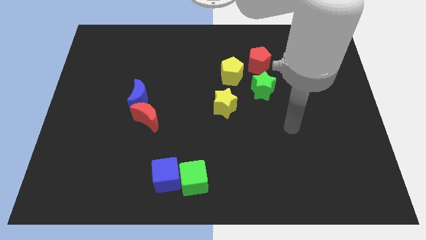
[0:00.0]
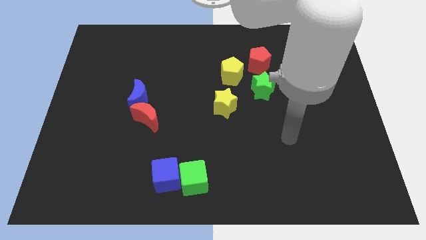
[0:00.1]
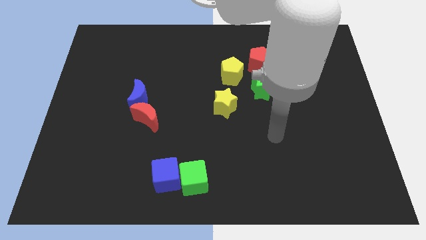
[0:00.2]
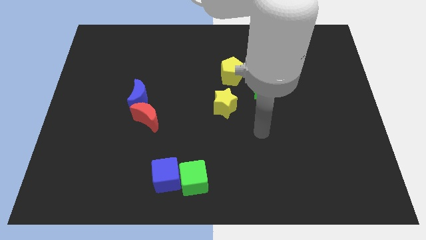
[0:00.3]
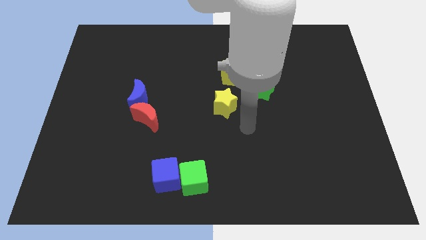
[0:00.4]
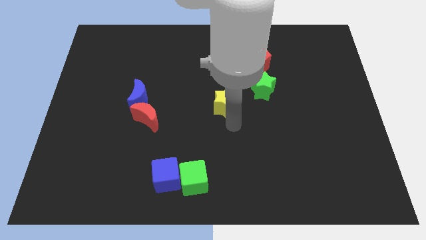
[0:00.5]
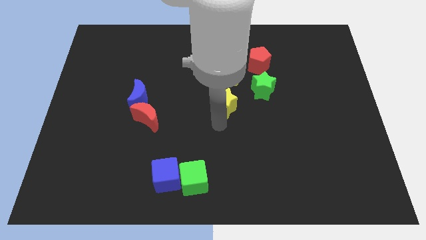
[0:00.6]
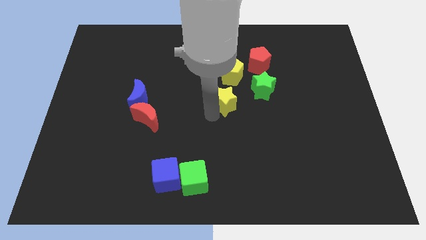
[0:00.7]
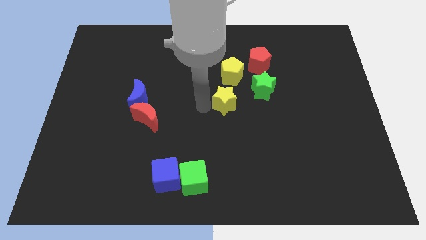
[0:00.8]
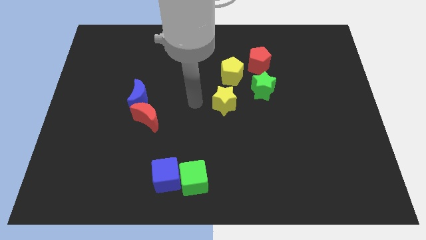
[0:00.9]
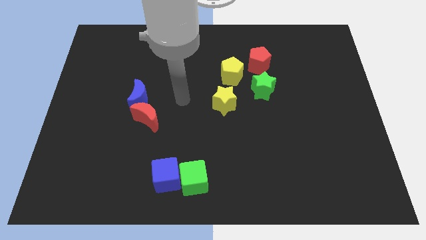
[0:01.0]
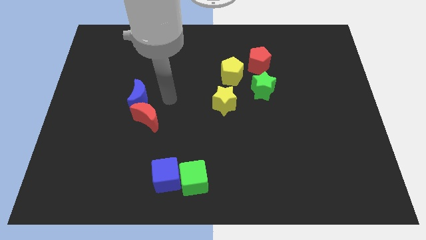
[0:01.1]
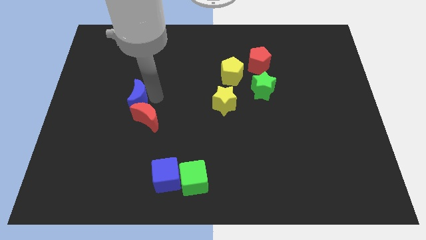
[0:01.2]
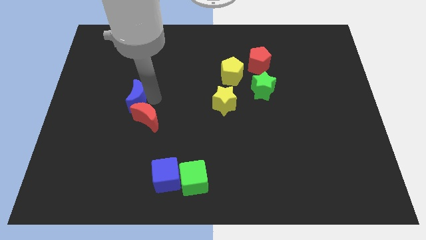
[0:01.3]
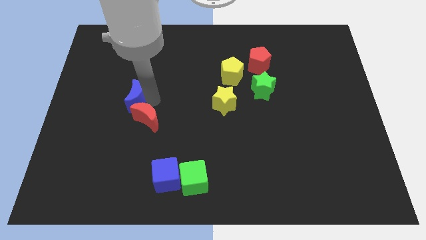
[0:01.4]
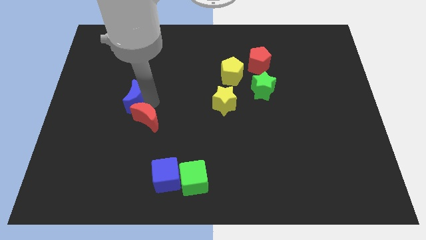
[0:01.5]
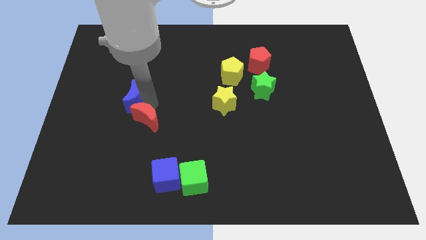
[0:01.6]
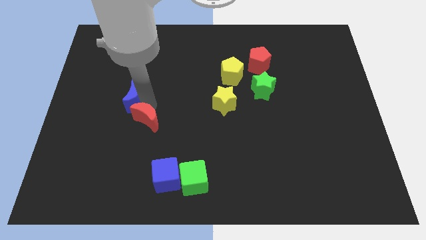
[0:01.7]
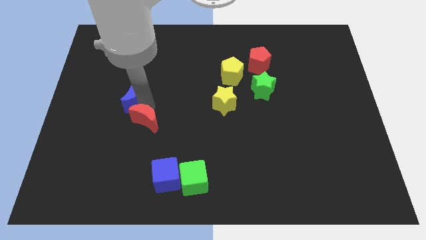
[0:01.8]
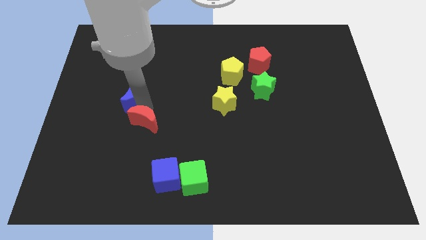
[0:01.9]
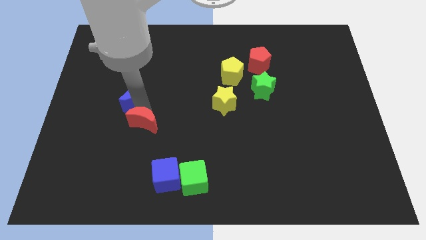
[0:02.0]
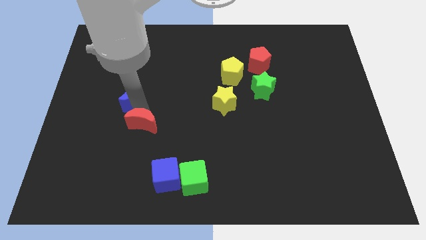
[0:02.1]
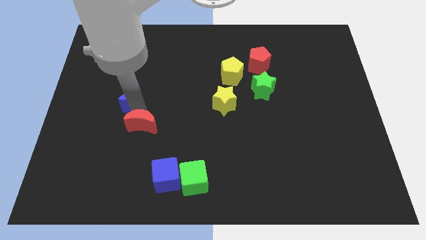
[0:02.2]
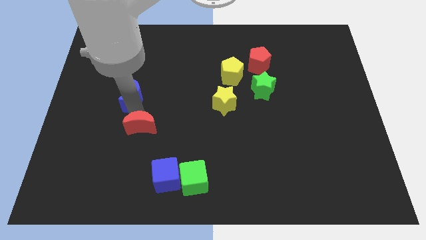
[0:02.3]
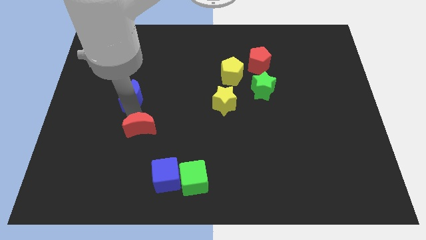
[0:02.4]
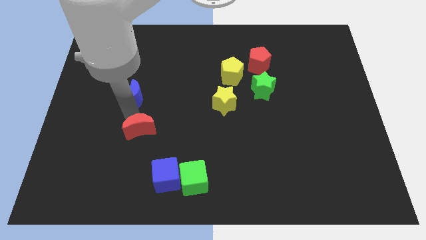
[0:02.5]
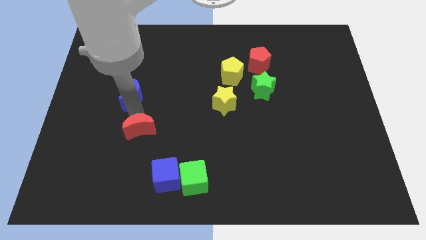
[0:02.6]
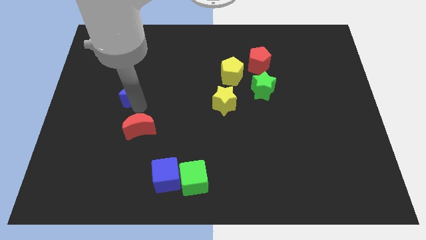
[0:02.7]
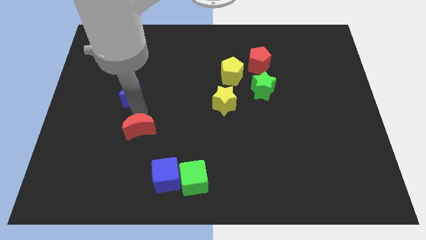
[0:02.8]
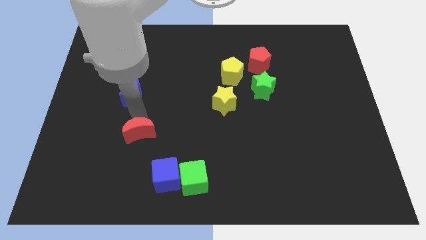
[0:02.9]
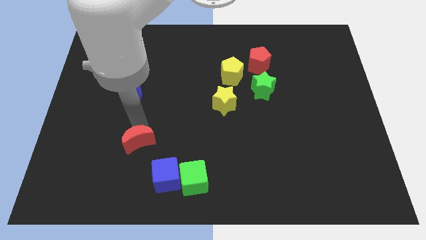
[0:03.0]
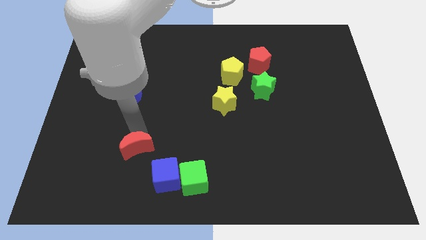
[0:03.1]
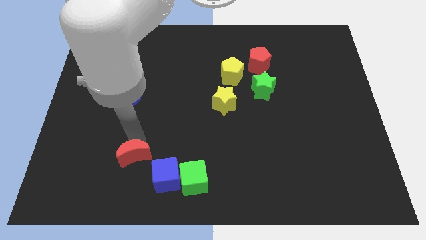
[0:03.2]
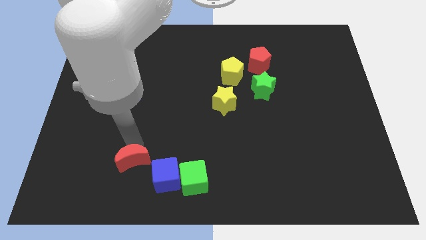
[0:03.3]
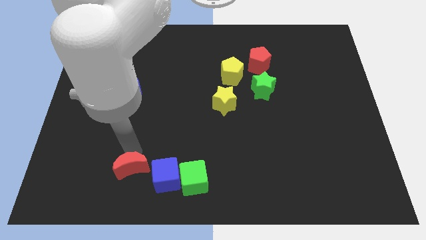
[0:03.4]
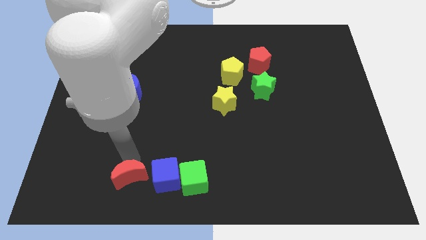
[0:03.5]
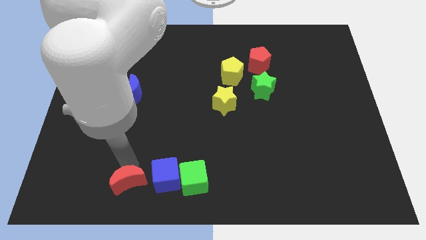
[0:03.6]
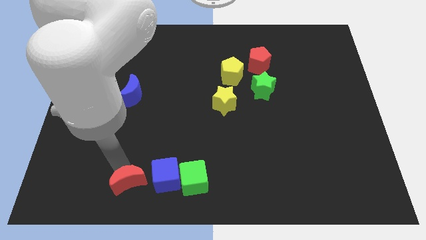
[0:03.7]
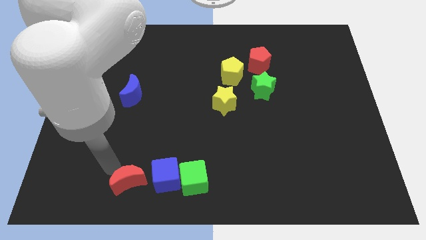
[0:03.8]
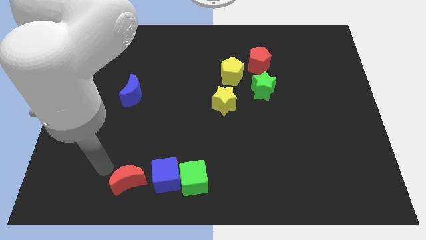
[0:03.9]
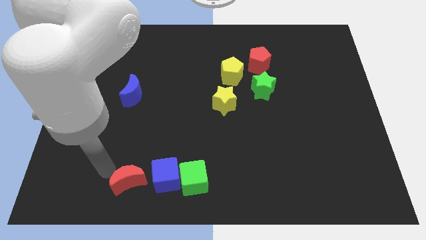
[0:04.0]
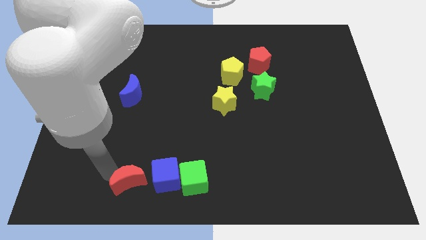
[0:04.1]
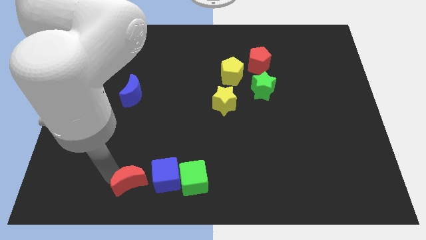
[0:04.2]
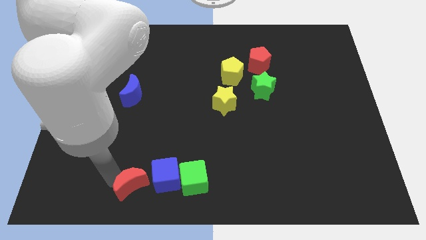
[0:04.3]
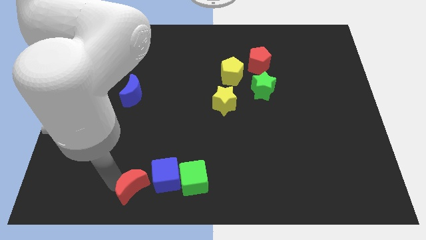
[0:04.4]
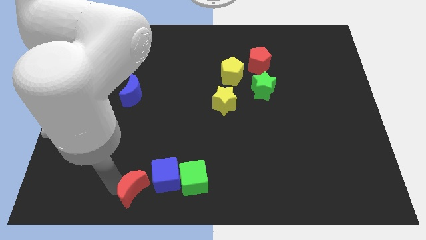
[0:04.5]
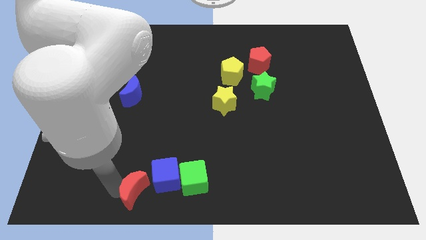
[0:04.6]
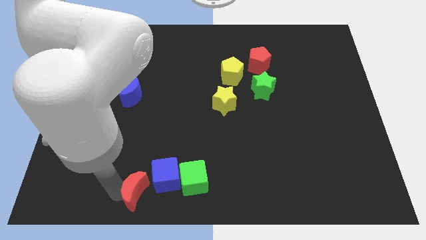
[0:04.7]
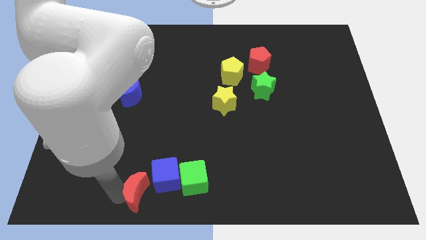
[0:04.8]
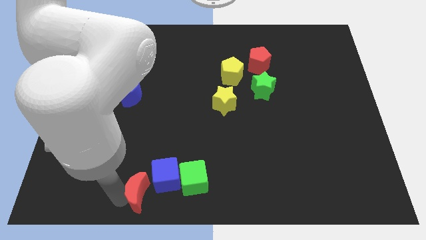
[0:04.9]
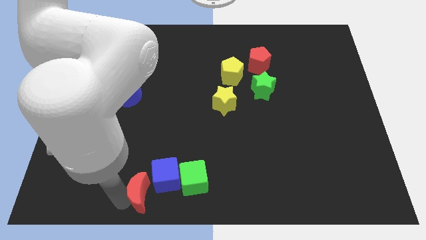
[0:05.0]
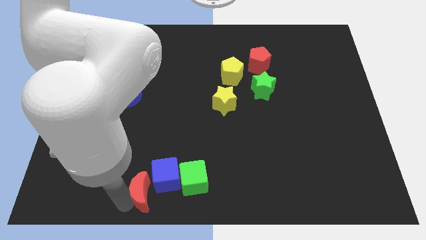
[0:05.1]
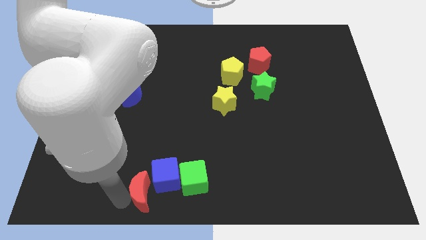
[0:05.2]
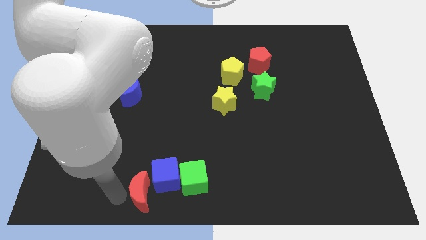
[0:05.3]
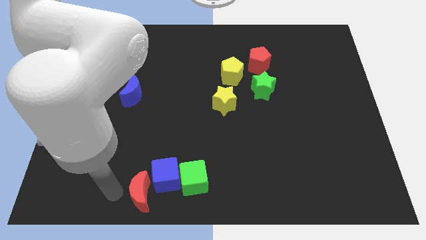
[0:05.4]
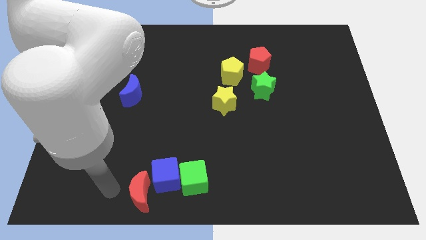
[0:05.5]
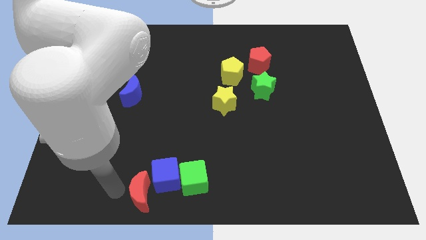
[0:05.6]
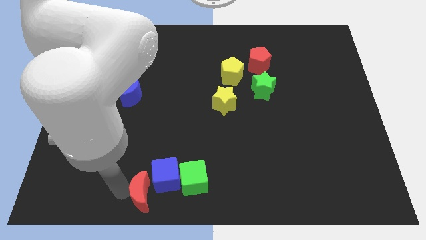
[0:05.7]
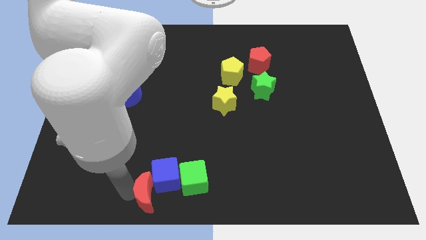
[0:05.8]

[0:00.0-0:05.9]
push the red moon to the bottom side
